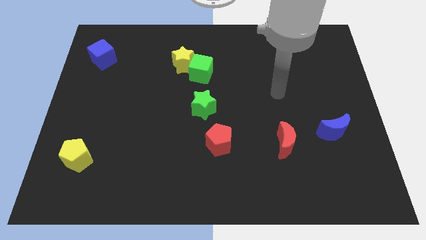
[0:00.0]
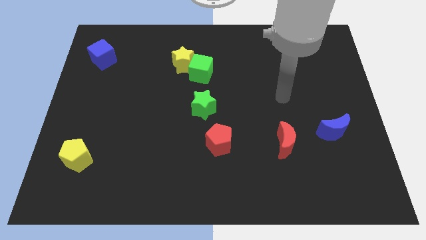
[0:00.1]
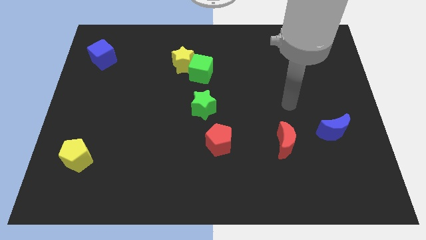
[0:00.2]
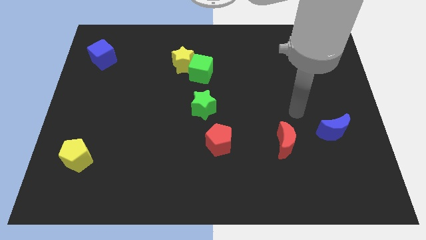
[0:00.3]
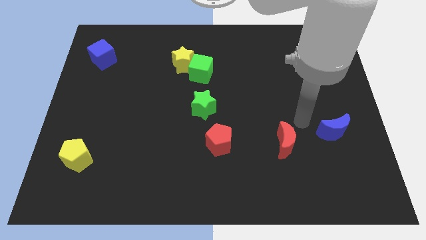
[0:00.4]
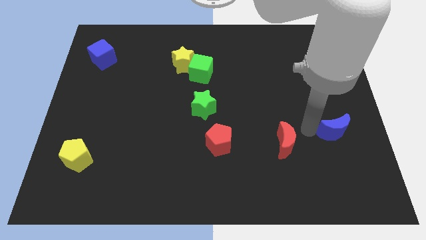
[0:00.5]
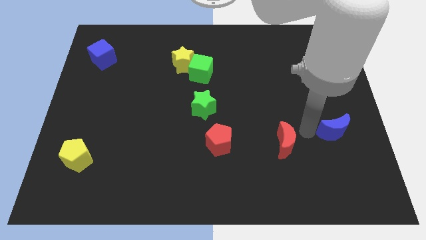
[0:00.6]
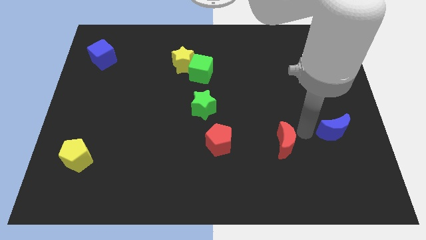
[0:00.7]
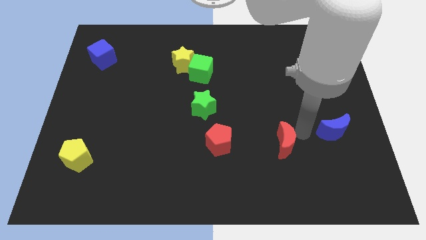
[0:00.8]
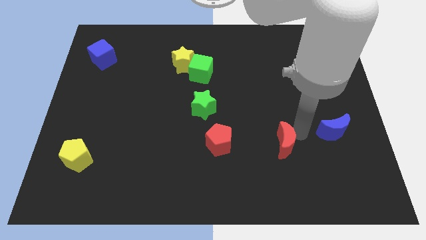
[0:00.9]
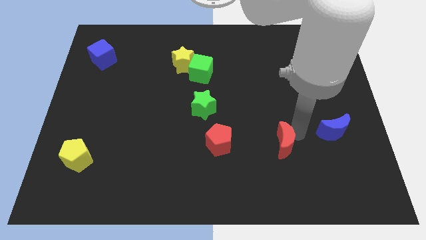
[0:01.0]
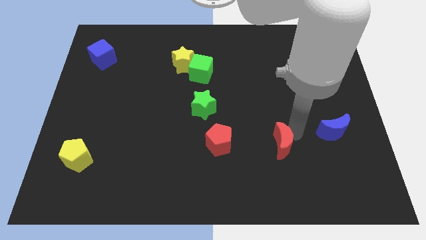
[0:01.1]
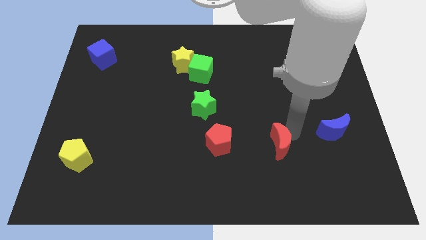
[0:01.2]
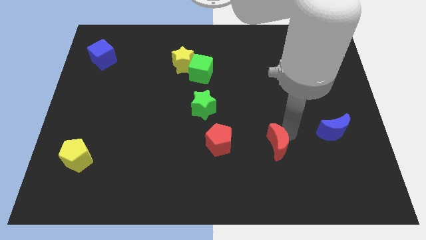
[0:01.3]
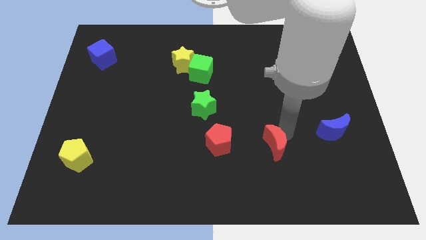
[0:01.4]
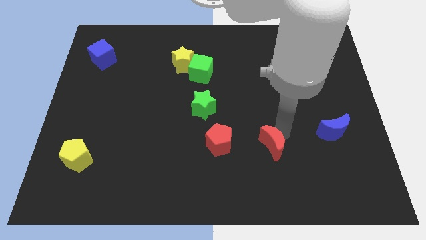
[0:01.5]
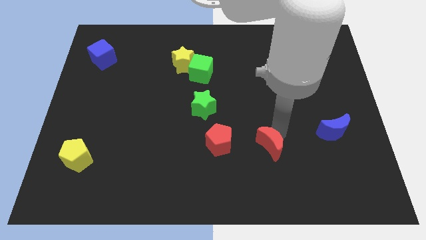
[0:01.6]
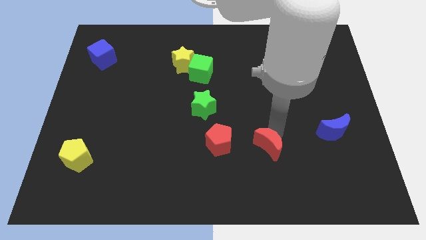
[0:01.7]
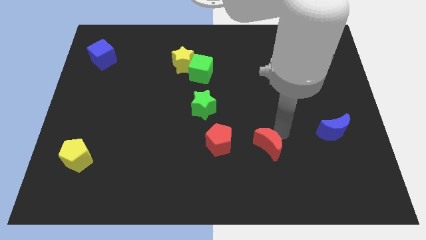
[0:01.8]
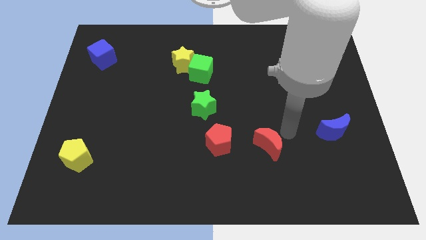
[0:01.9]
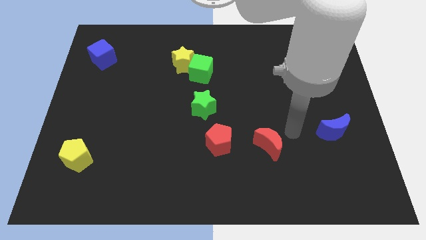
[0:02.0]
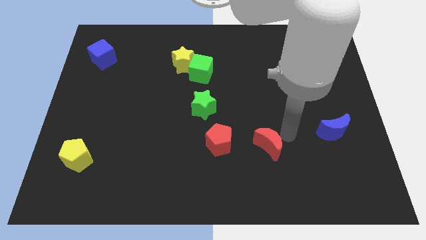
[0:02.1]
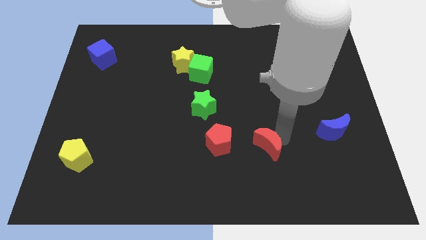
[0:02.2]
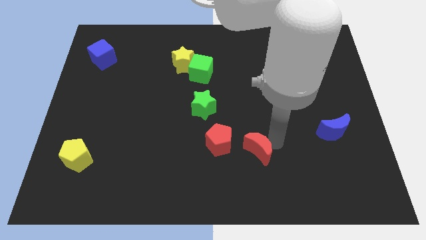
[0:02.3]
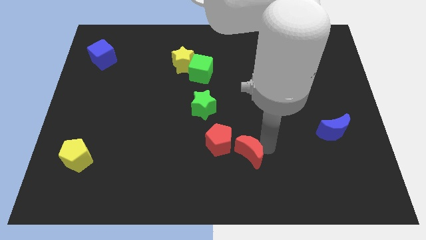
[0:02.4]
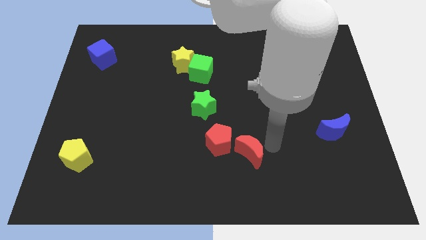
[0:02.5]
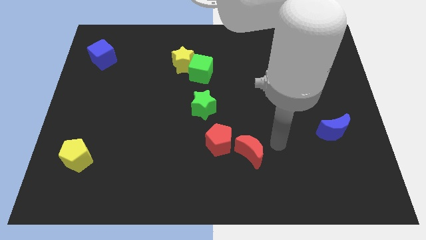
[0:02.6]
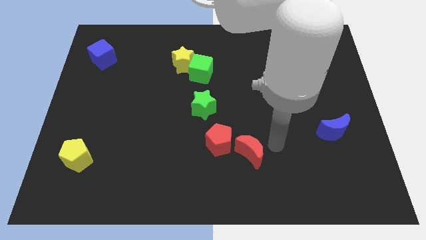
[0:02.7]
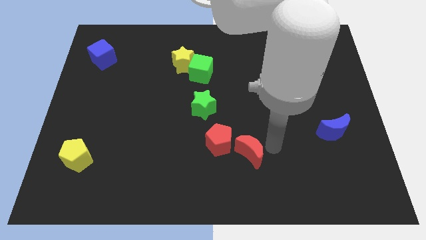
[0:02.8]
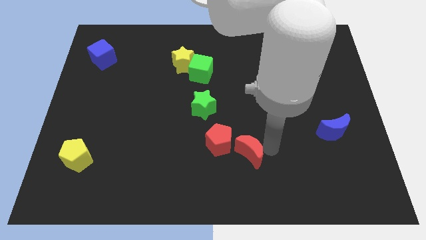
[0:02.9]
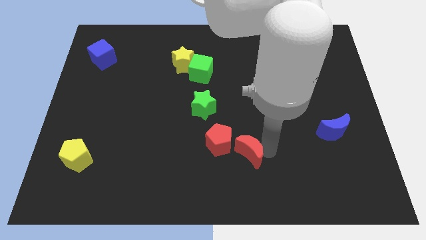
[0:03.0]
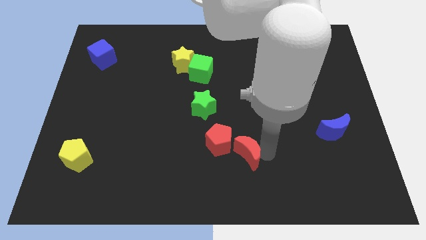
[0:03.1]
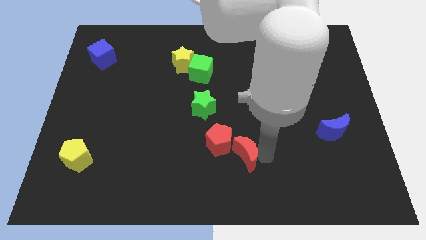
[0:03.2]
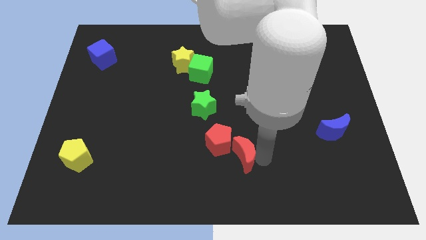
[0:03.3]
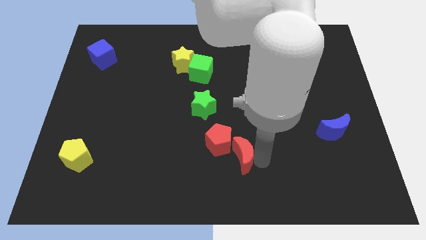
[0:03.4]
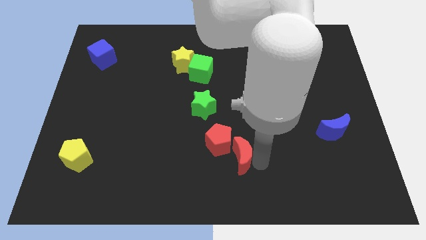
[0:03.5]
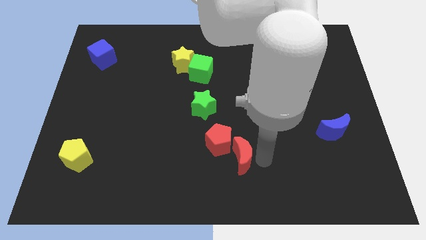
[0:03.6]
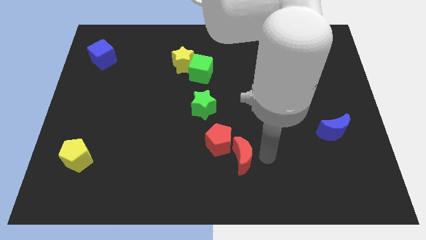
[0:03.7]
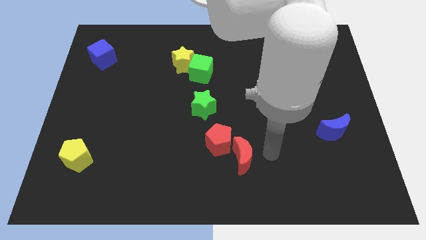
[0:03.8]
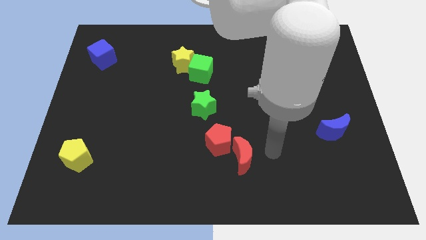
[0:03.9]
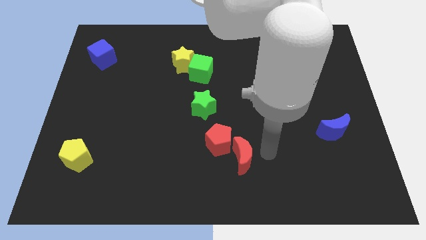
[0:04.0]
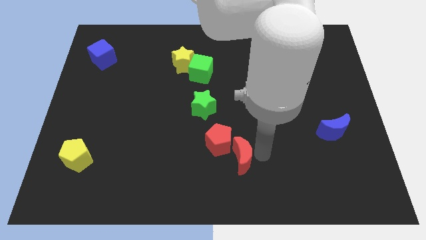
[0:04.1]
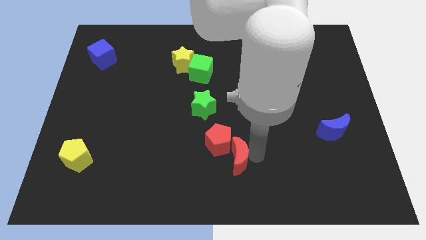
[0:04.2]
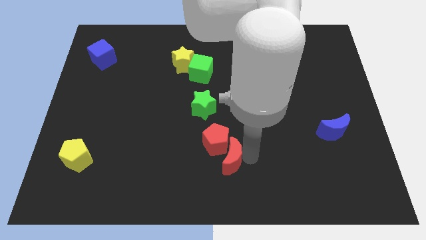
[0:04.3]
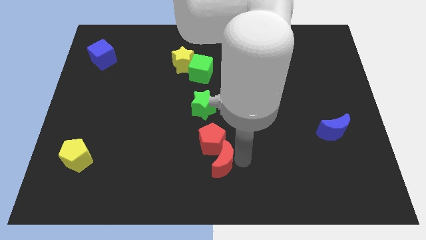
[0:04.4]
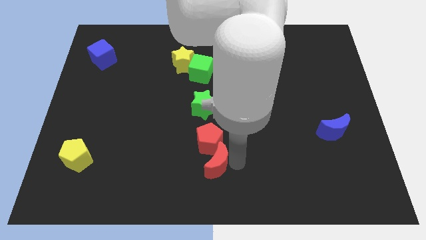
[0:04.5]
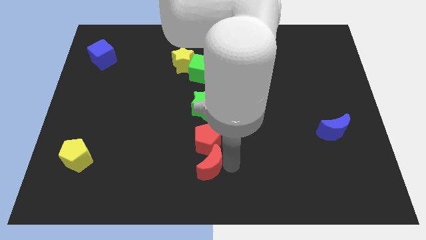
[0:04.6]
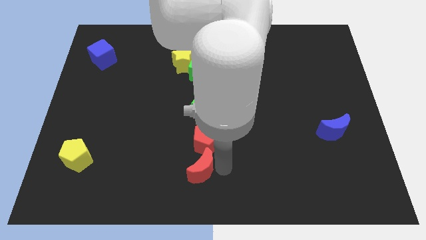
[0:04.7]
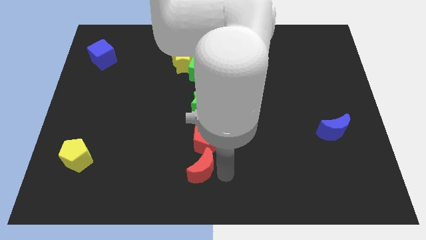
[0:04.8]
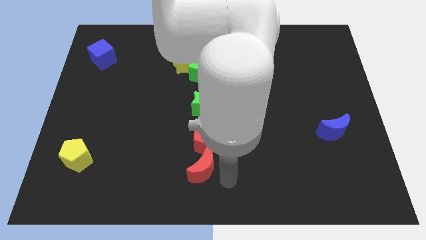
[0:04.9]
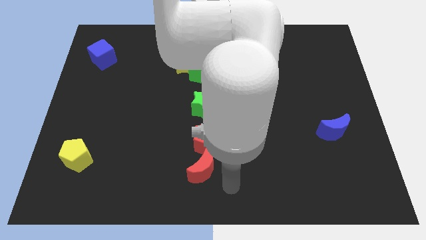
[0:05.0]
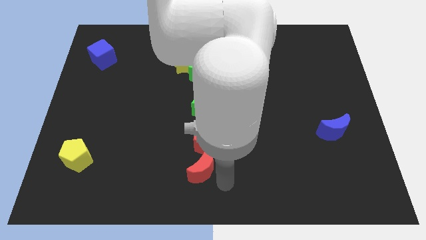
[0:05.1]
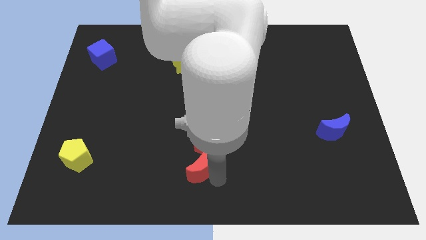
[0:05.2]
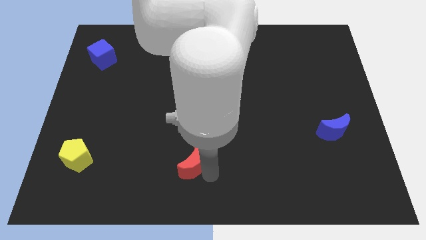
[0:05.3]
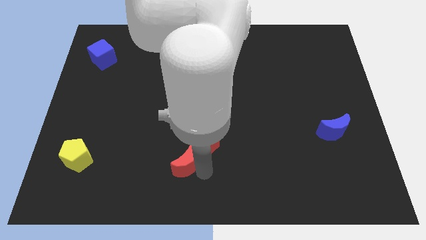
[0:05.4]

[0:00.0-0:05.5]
slide the red moon to the left

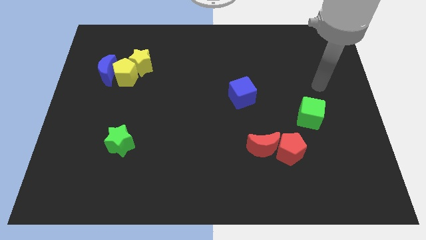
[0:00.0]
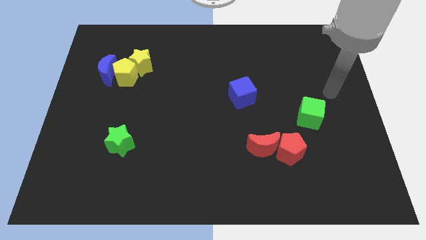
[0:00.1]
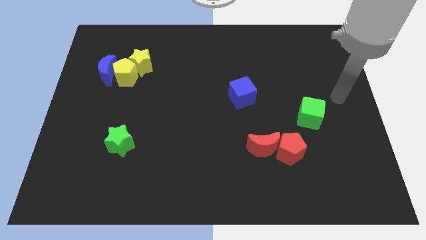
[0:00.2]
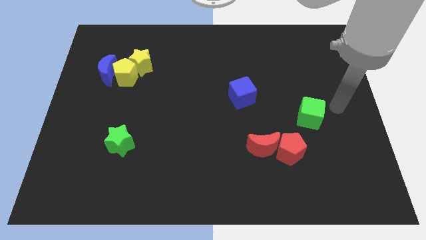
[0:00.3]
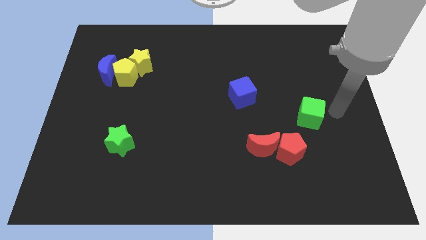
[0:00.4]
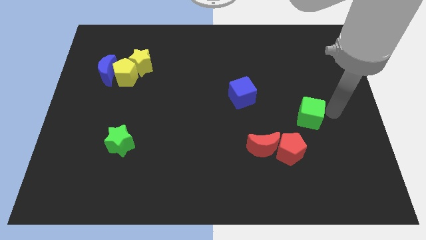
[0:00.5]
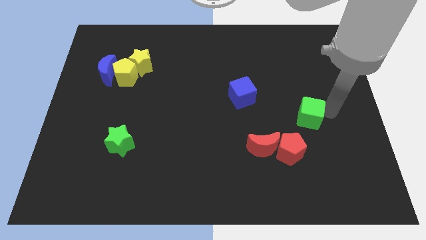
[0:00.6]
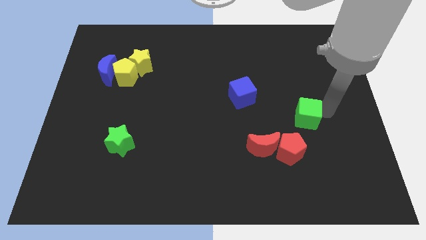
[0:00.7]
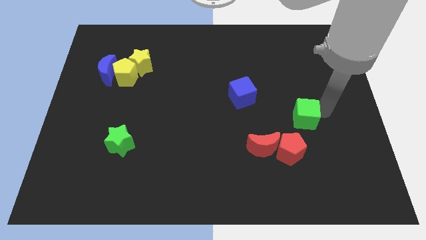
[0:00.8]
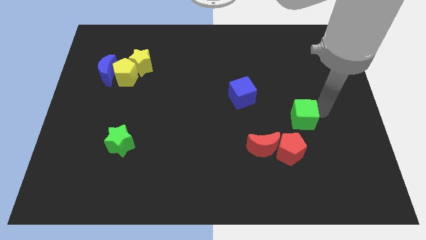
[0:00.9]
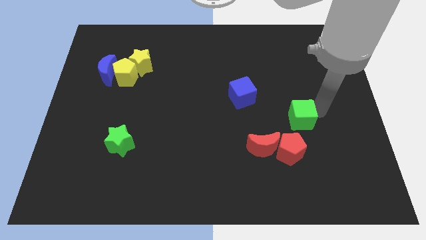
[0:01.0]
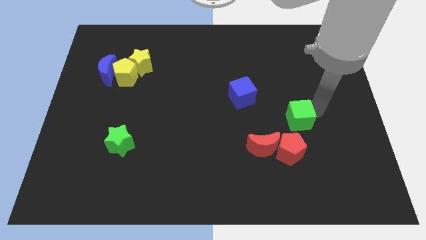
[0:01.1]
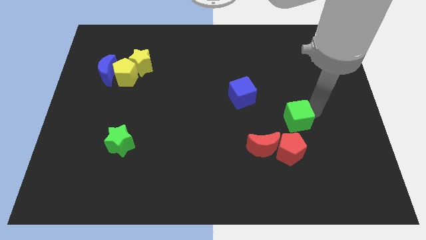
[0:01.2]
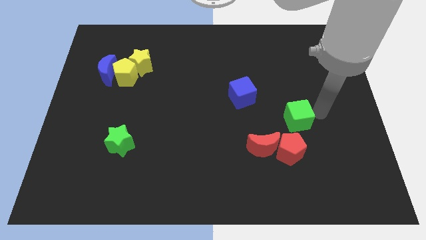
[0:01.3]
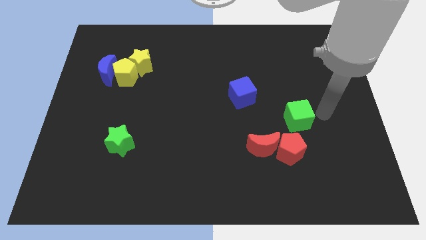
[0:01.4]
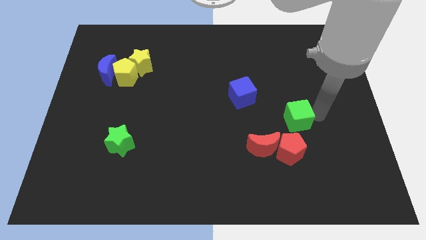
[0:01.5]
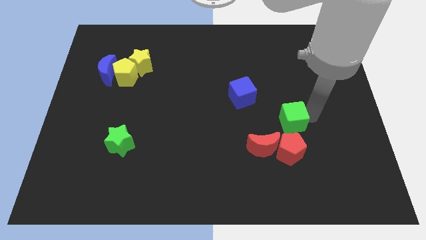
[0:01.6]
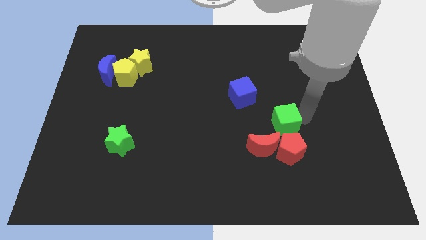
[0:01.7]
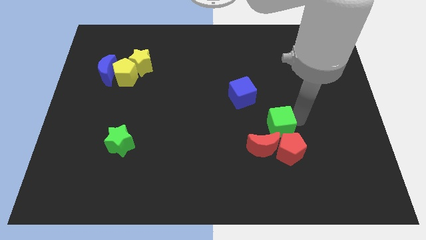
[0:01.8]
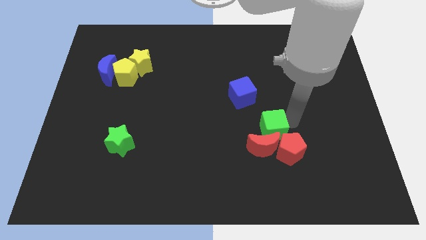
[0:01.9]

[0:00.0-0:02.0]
slightly push the green cube down and to the left
